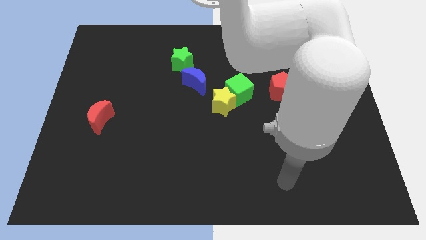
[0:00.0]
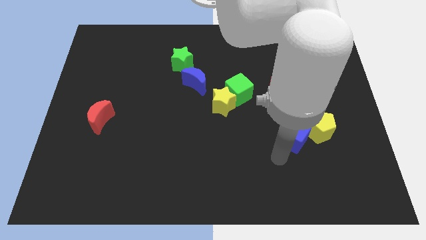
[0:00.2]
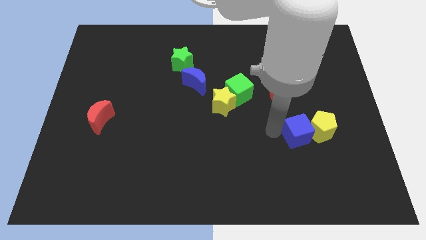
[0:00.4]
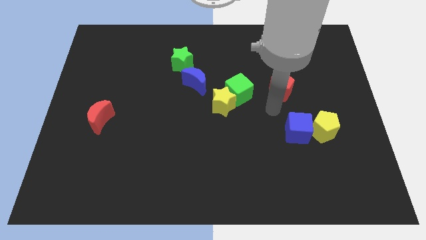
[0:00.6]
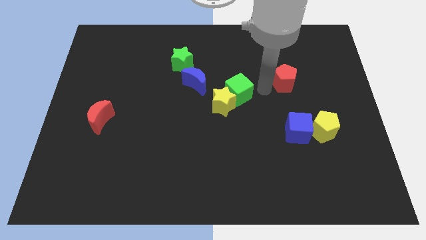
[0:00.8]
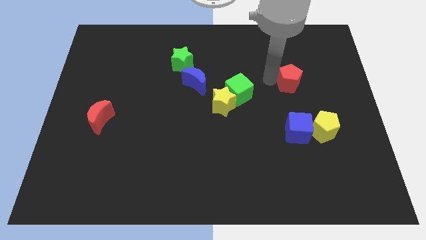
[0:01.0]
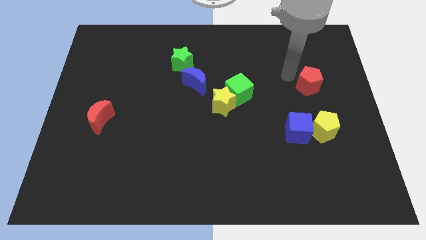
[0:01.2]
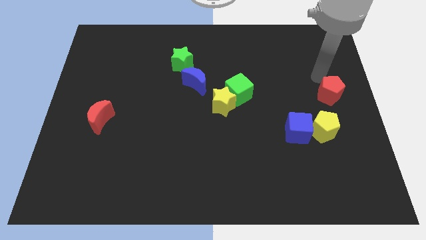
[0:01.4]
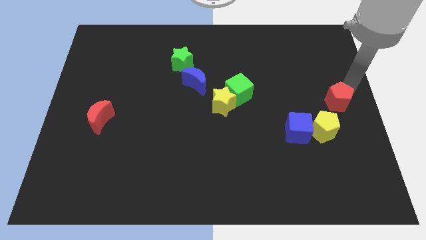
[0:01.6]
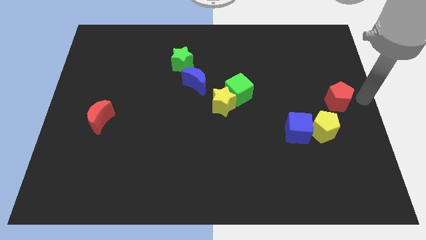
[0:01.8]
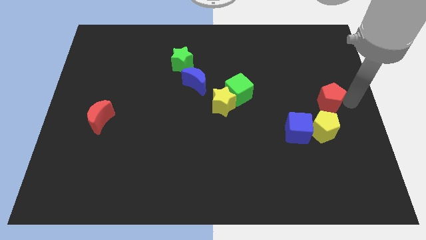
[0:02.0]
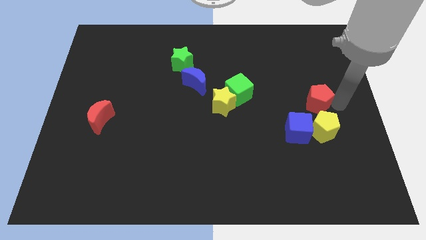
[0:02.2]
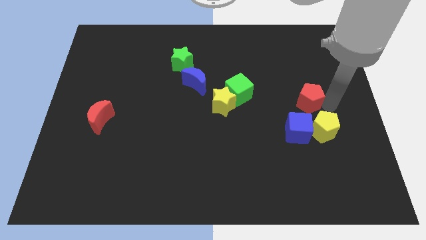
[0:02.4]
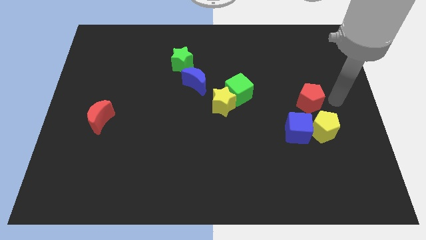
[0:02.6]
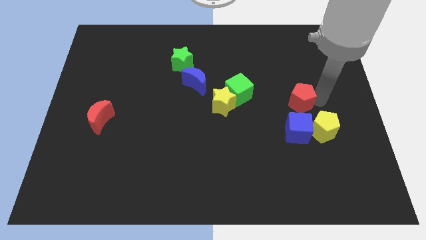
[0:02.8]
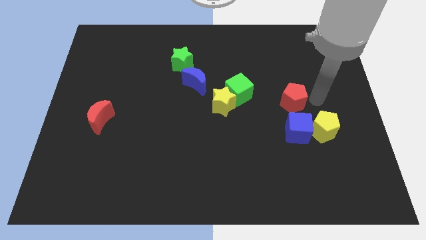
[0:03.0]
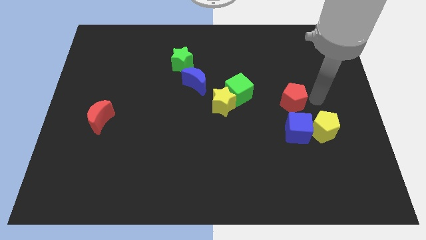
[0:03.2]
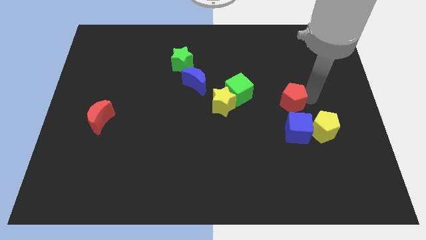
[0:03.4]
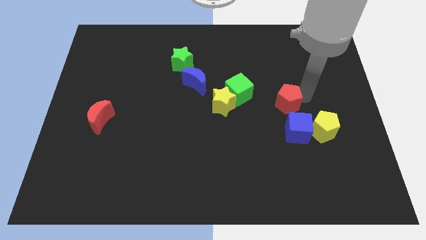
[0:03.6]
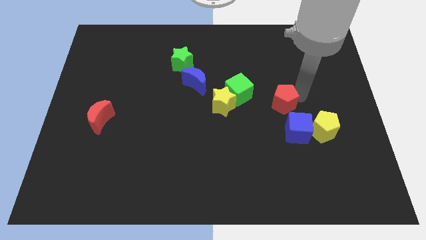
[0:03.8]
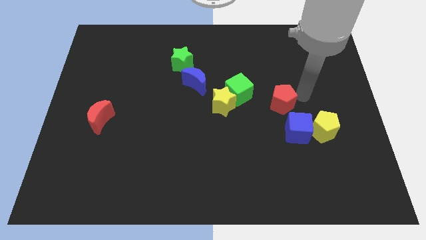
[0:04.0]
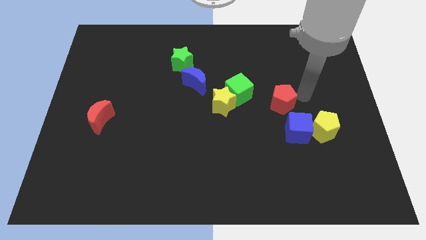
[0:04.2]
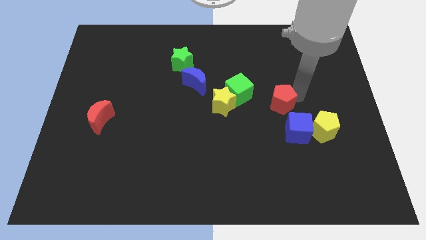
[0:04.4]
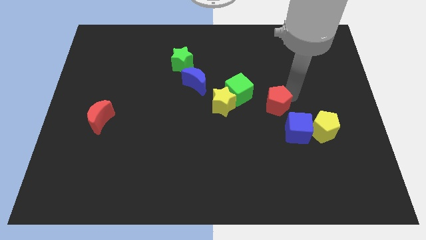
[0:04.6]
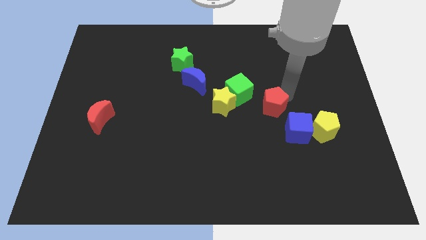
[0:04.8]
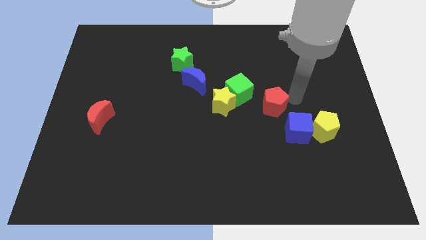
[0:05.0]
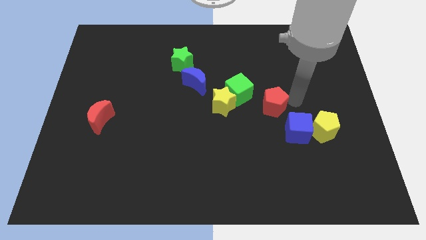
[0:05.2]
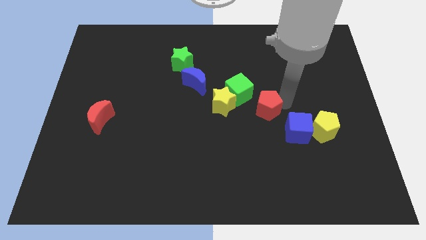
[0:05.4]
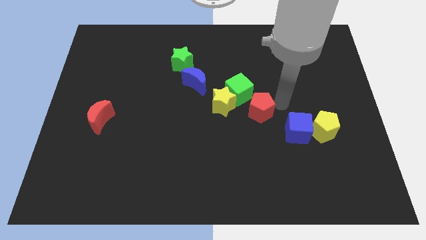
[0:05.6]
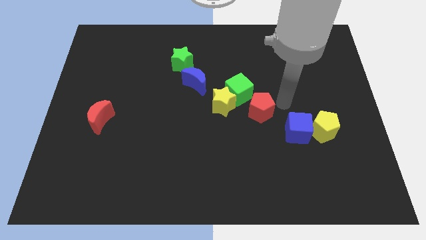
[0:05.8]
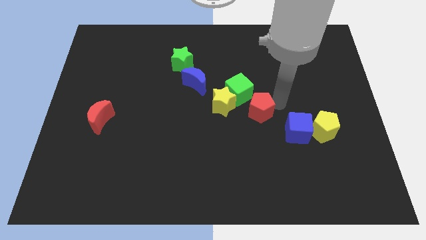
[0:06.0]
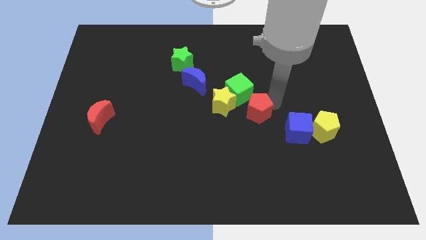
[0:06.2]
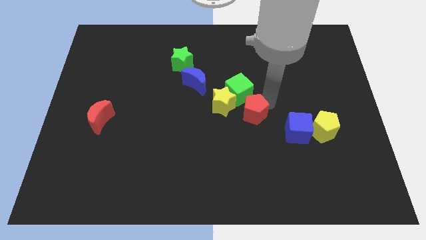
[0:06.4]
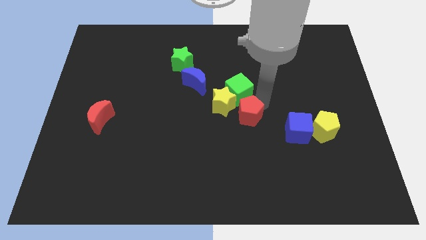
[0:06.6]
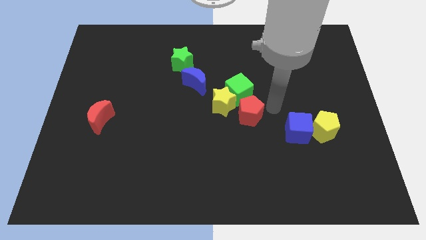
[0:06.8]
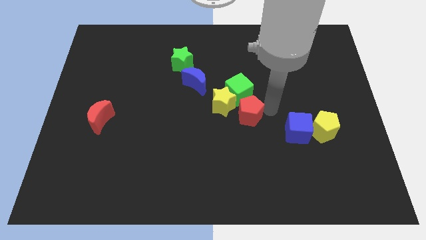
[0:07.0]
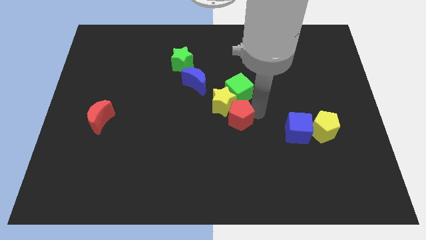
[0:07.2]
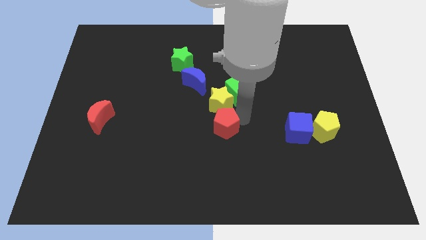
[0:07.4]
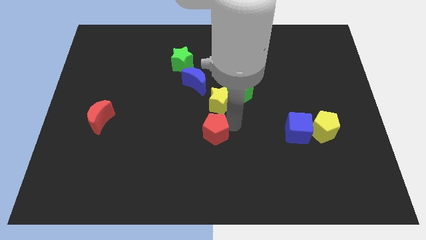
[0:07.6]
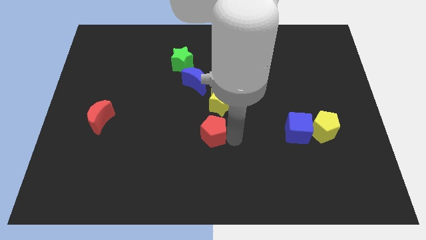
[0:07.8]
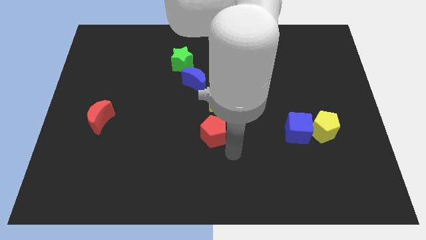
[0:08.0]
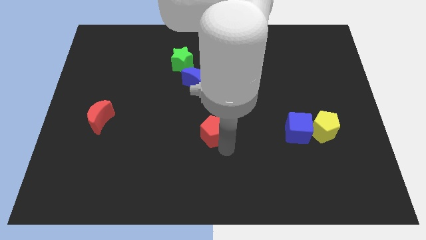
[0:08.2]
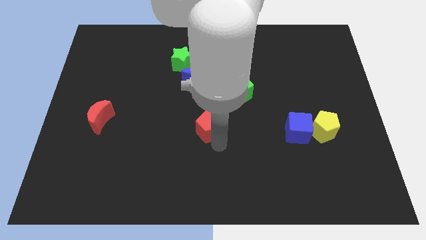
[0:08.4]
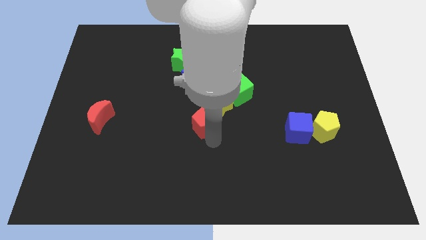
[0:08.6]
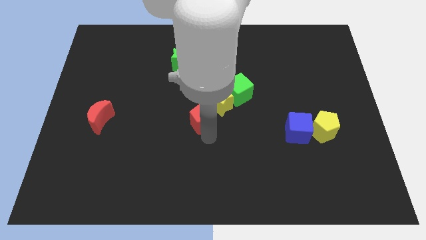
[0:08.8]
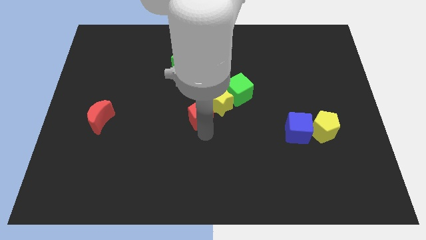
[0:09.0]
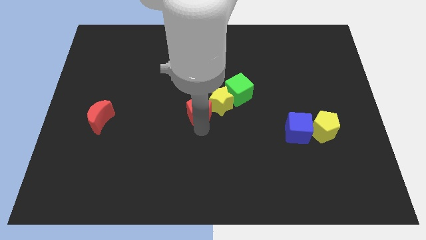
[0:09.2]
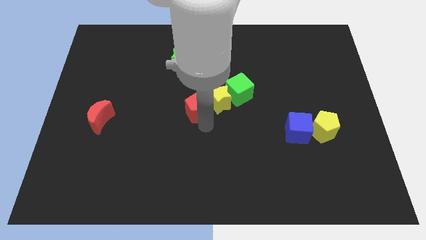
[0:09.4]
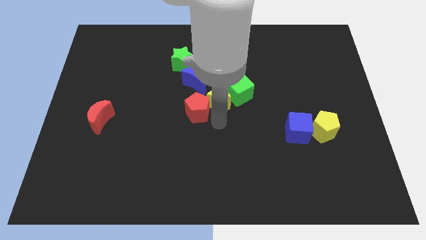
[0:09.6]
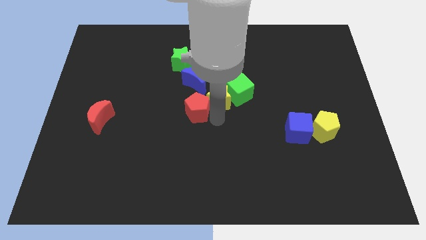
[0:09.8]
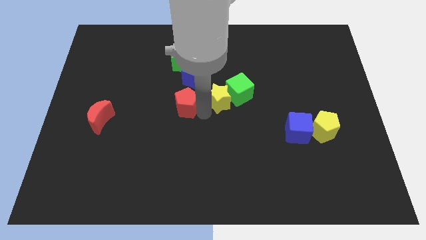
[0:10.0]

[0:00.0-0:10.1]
slide the red pentagon to the bottom left side of the blue moon

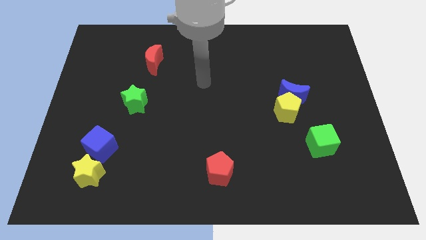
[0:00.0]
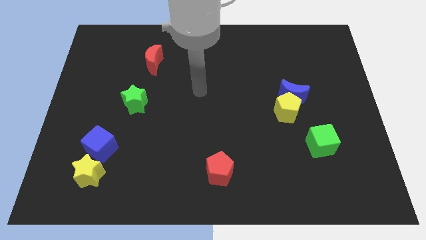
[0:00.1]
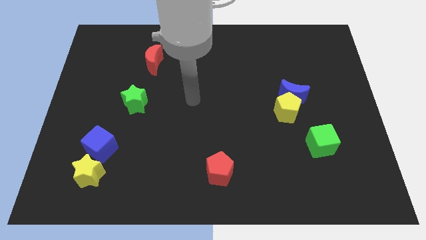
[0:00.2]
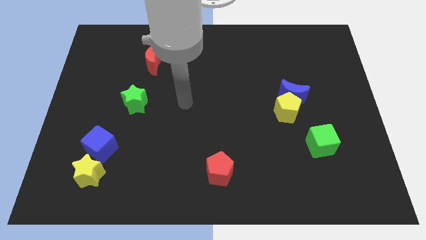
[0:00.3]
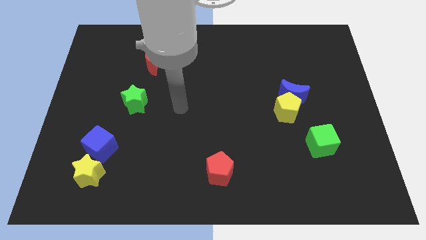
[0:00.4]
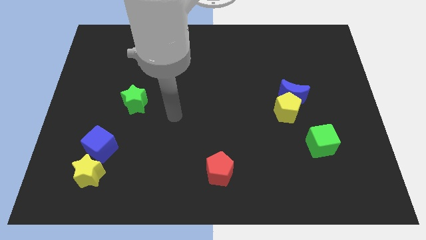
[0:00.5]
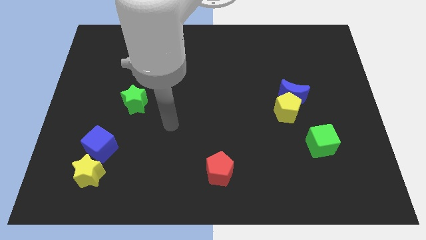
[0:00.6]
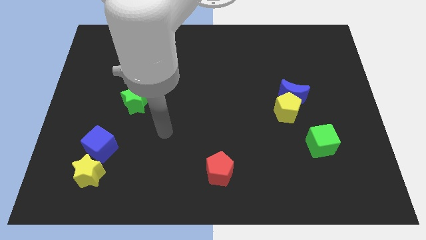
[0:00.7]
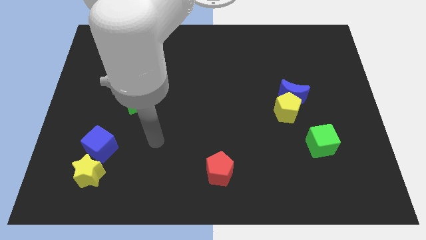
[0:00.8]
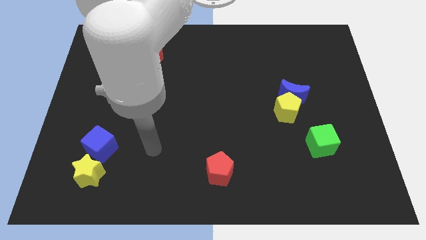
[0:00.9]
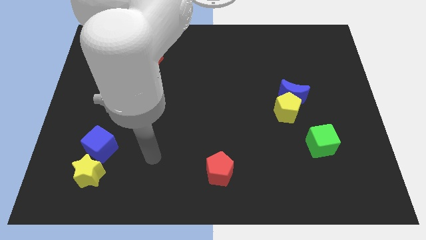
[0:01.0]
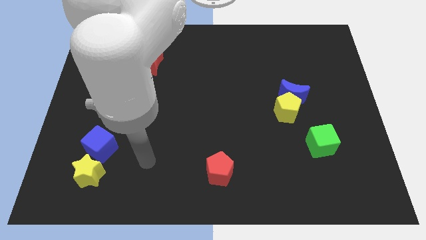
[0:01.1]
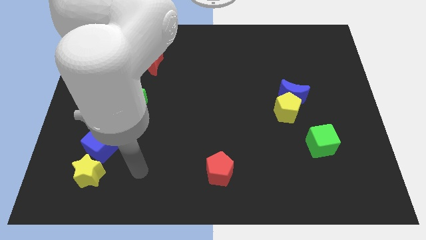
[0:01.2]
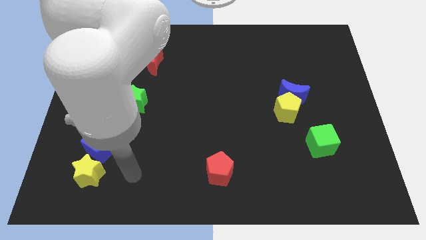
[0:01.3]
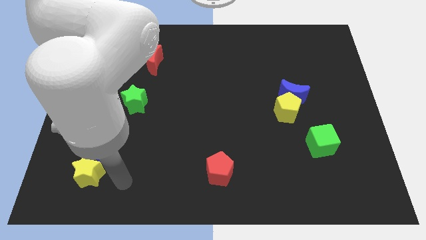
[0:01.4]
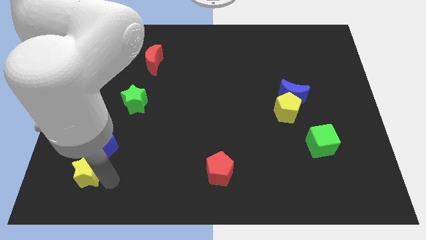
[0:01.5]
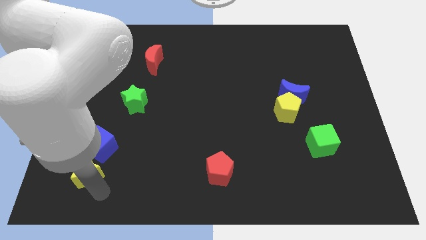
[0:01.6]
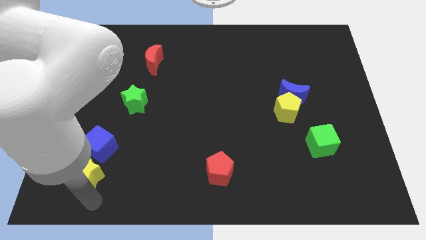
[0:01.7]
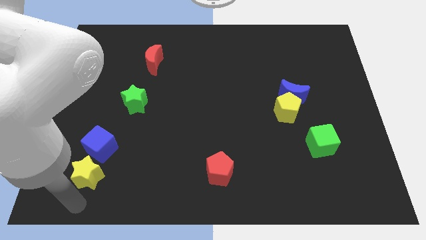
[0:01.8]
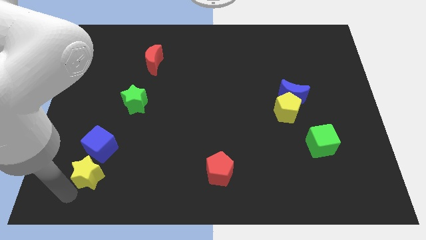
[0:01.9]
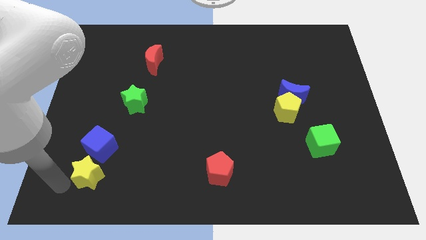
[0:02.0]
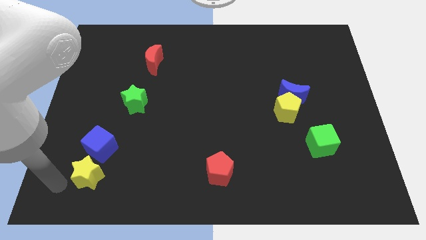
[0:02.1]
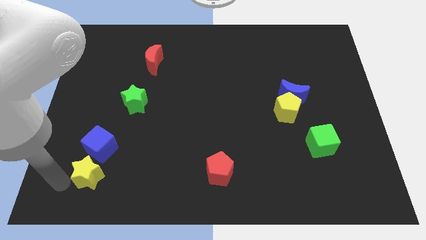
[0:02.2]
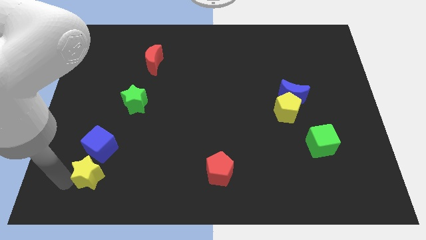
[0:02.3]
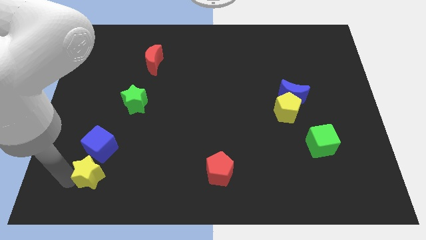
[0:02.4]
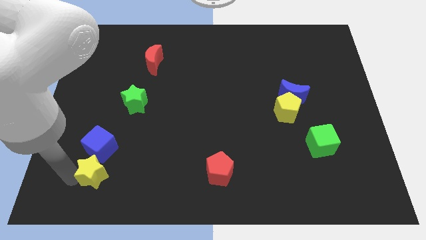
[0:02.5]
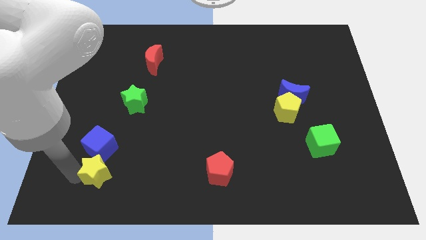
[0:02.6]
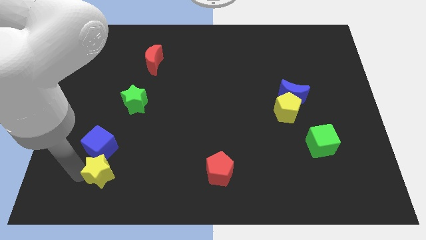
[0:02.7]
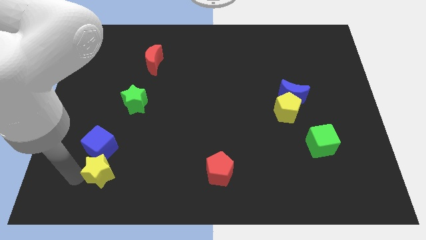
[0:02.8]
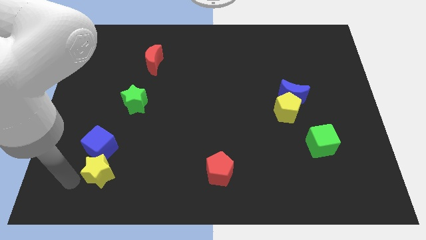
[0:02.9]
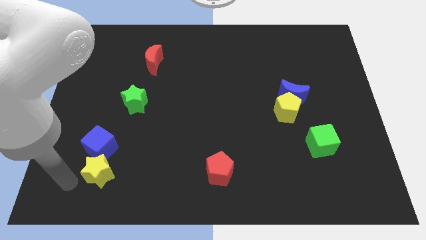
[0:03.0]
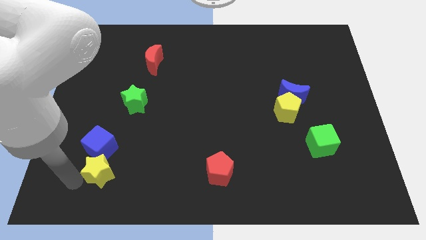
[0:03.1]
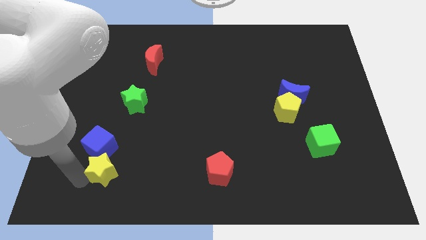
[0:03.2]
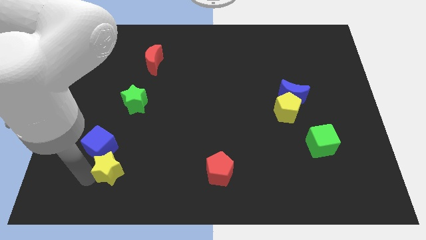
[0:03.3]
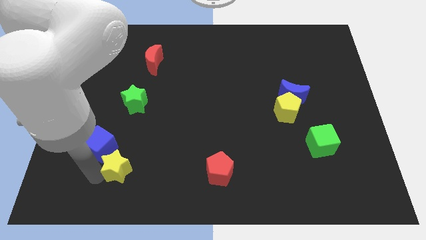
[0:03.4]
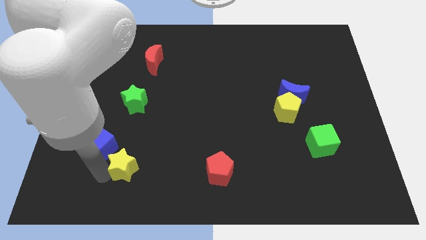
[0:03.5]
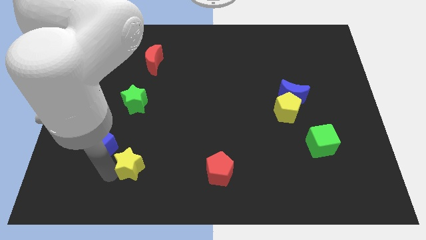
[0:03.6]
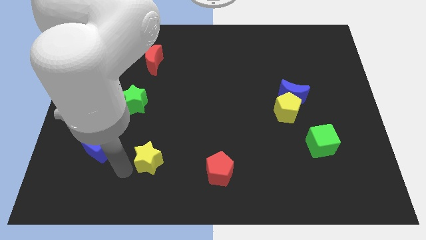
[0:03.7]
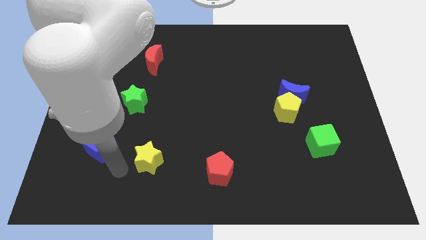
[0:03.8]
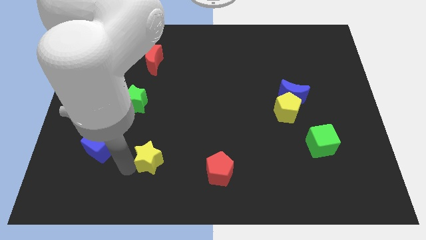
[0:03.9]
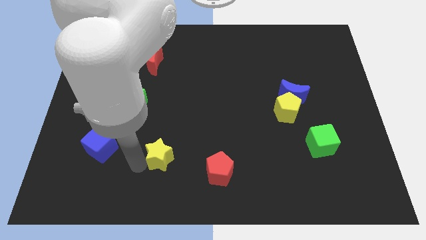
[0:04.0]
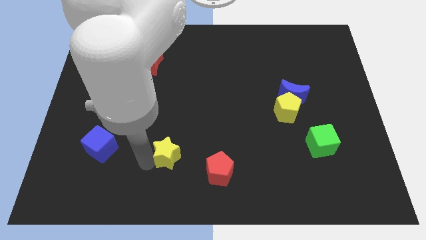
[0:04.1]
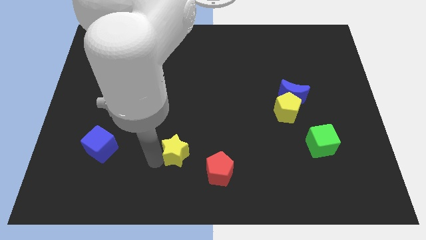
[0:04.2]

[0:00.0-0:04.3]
push the yellow star to the top left of the red pentagon
